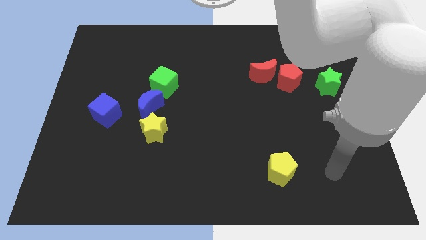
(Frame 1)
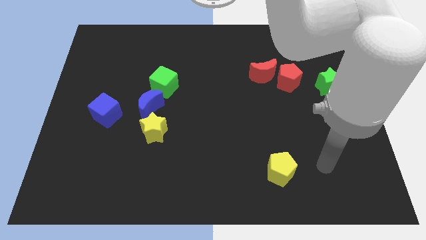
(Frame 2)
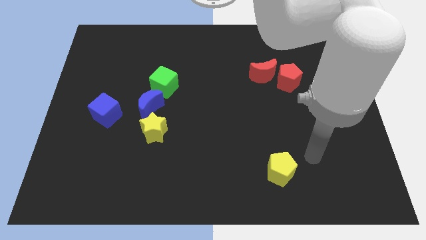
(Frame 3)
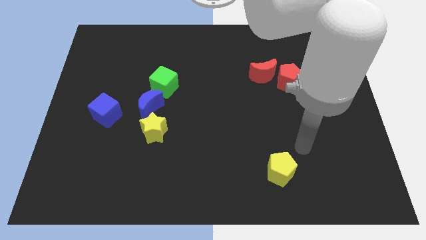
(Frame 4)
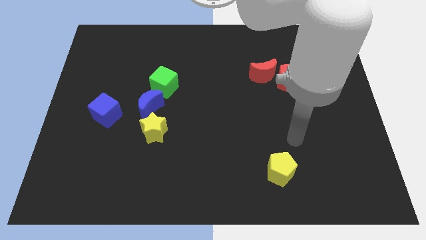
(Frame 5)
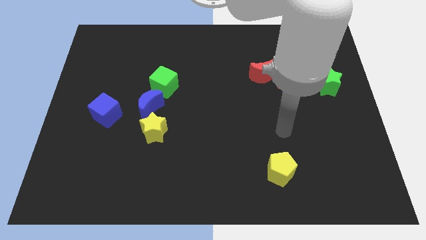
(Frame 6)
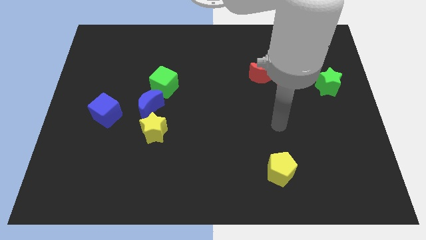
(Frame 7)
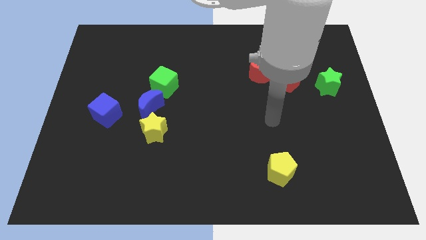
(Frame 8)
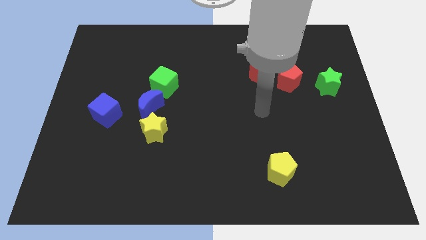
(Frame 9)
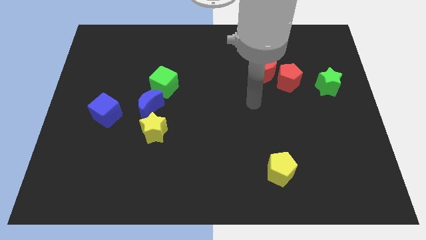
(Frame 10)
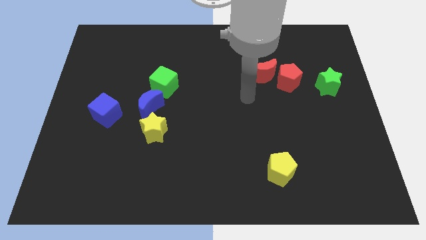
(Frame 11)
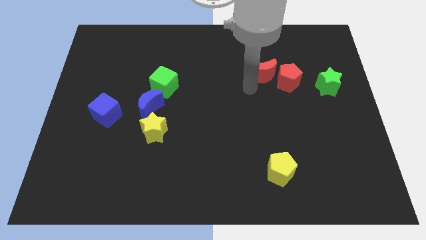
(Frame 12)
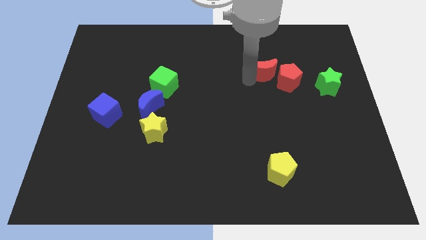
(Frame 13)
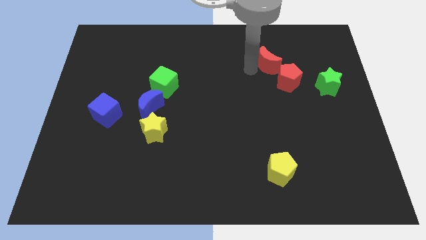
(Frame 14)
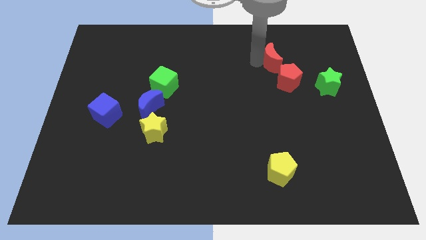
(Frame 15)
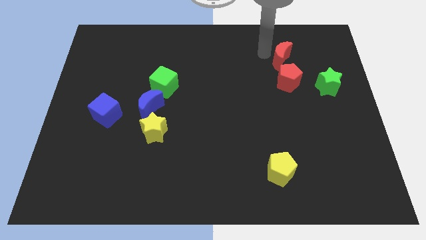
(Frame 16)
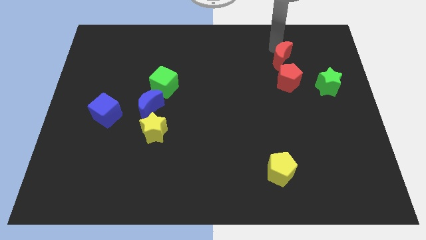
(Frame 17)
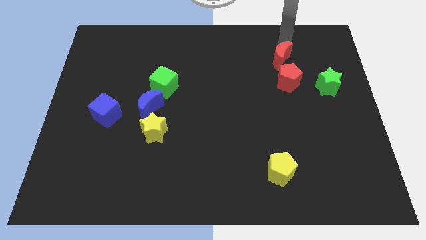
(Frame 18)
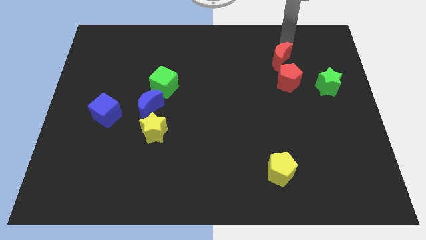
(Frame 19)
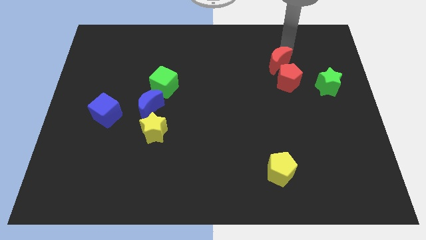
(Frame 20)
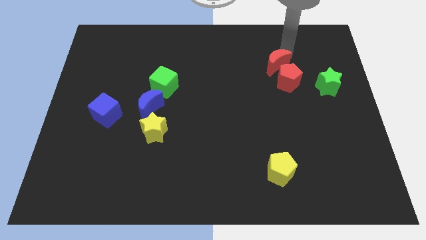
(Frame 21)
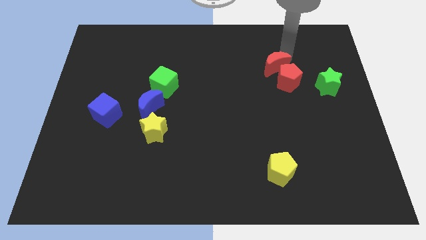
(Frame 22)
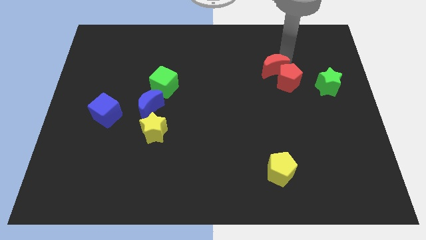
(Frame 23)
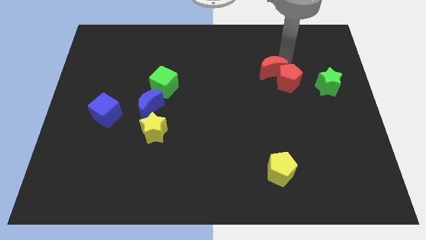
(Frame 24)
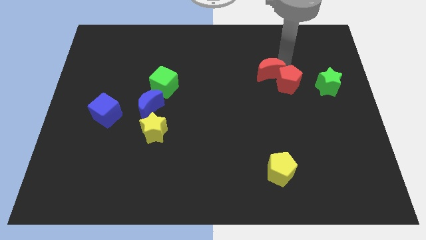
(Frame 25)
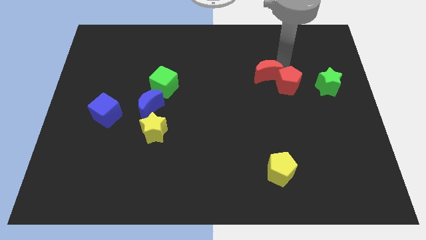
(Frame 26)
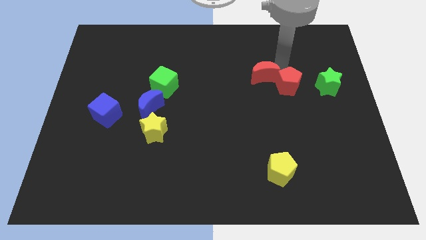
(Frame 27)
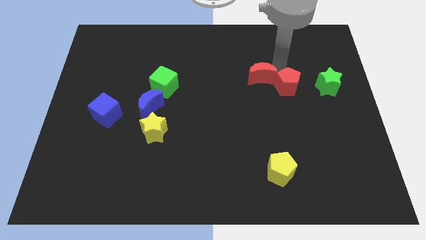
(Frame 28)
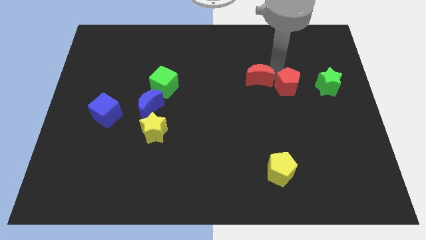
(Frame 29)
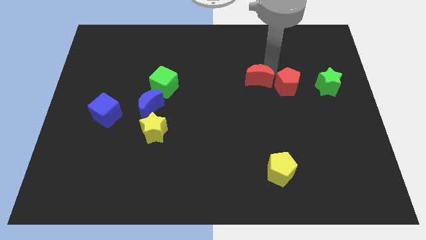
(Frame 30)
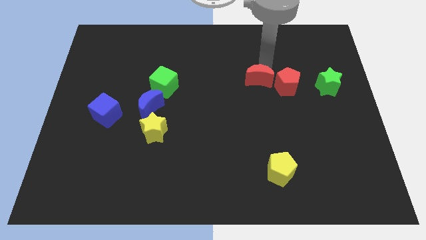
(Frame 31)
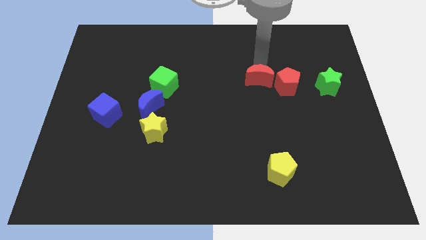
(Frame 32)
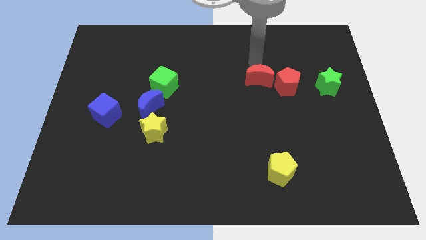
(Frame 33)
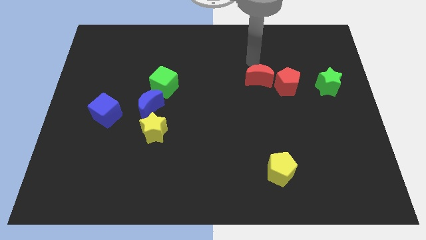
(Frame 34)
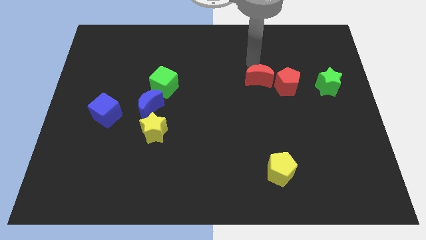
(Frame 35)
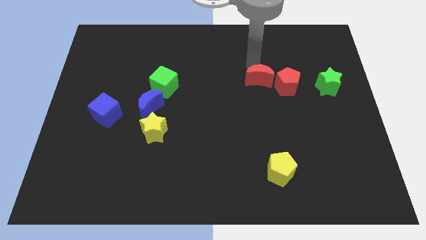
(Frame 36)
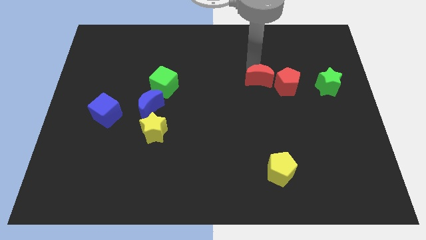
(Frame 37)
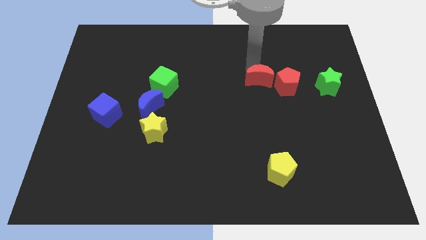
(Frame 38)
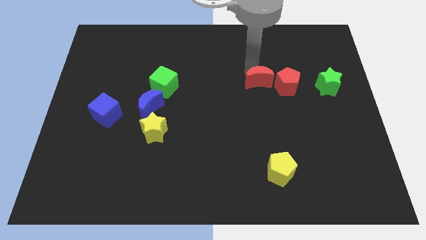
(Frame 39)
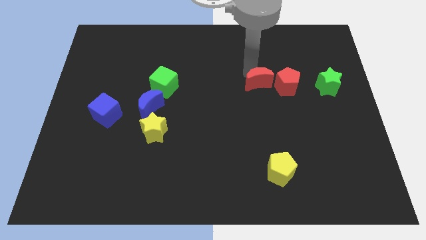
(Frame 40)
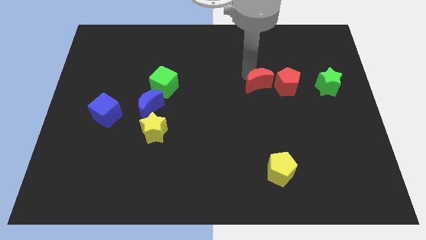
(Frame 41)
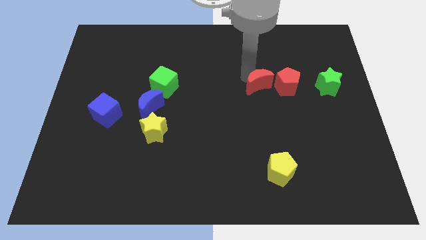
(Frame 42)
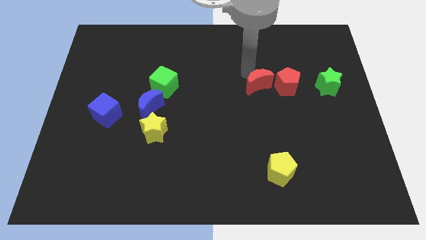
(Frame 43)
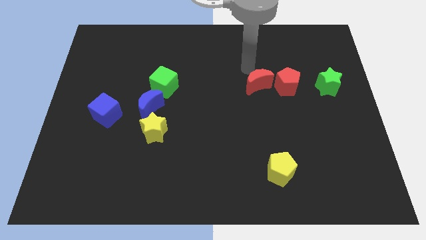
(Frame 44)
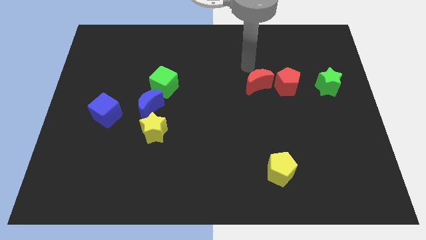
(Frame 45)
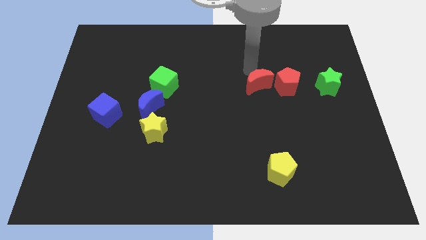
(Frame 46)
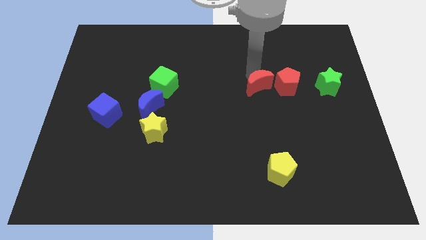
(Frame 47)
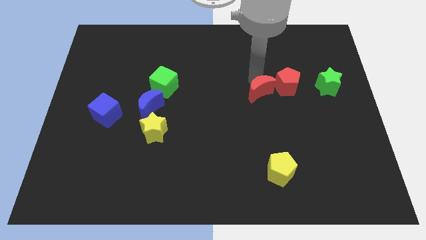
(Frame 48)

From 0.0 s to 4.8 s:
put the red moon to the bottom left of the red pentagon

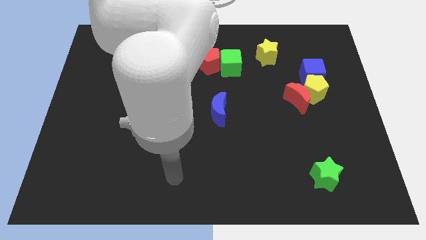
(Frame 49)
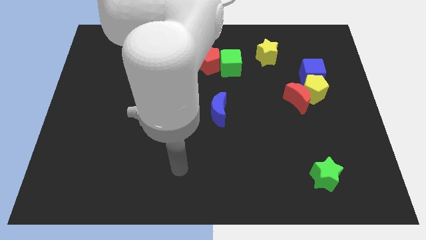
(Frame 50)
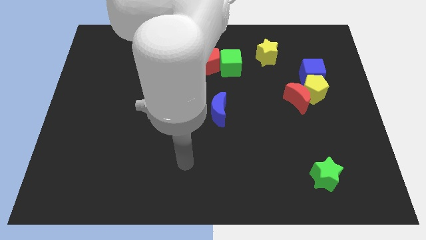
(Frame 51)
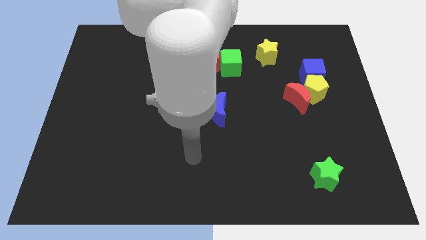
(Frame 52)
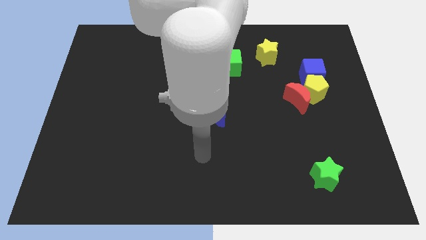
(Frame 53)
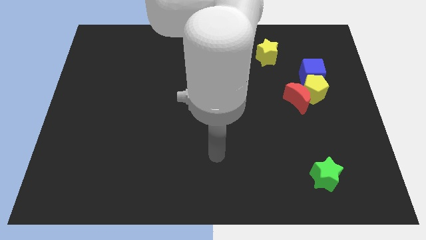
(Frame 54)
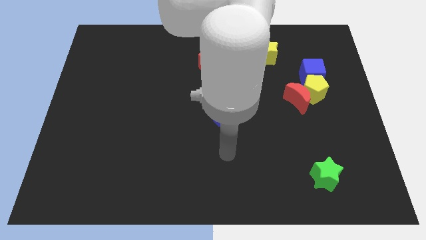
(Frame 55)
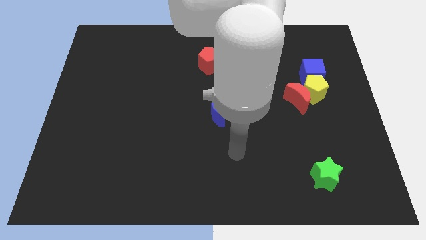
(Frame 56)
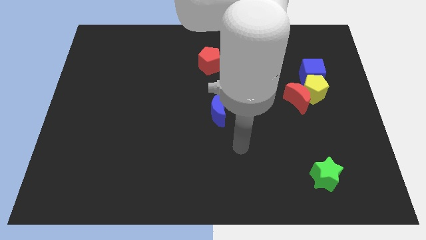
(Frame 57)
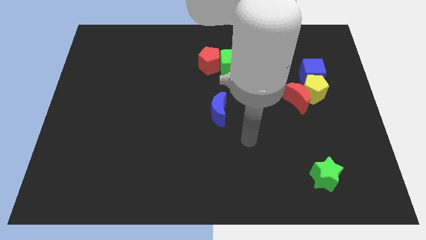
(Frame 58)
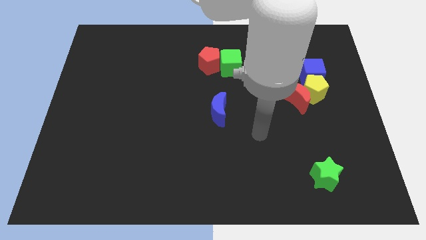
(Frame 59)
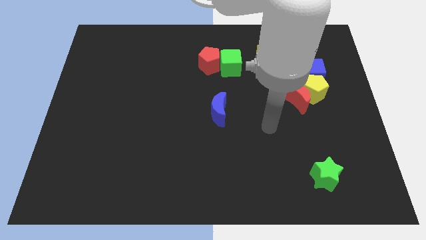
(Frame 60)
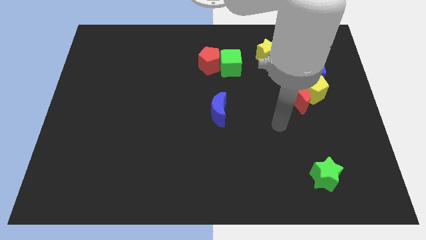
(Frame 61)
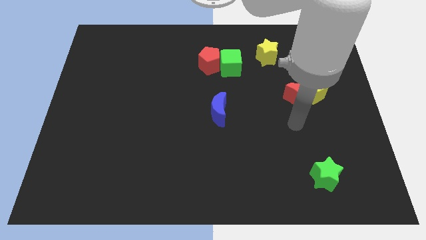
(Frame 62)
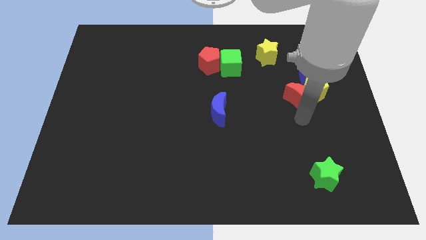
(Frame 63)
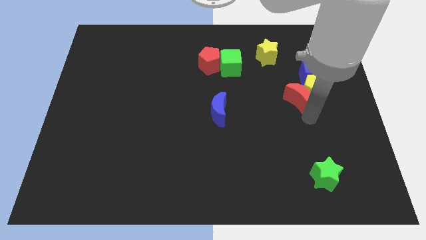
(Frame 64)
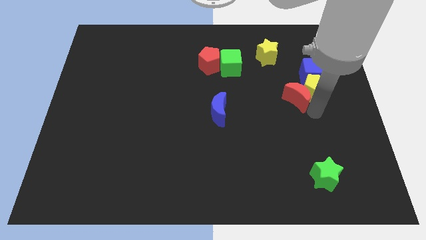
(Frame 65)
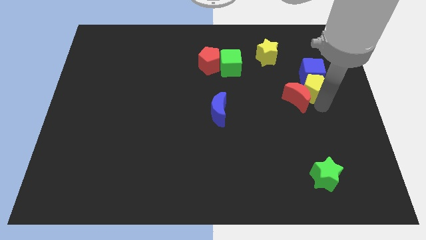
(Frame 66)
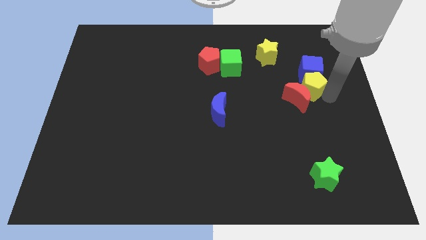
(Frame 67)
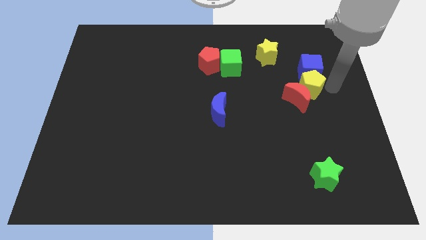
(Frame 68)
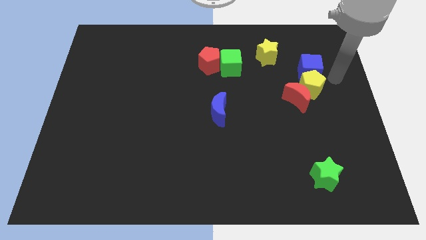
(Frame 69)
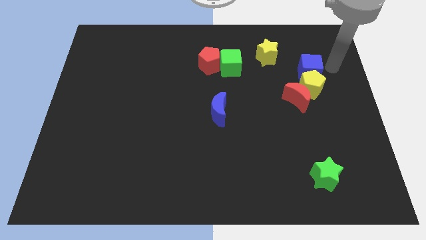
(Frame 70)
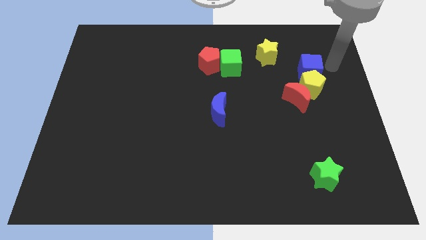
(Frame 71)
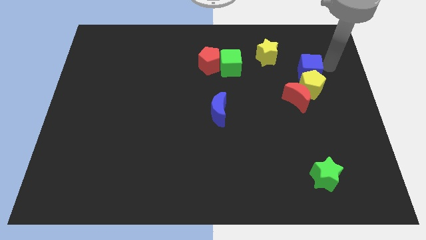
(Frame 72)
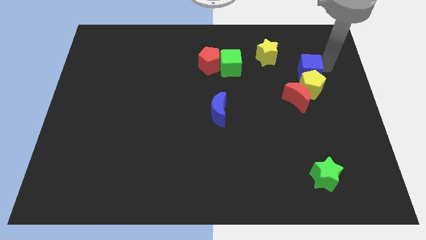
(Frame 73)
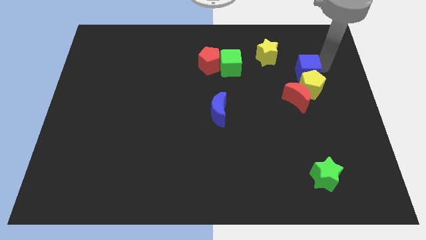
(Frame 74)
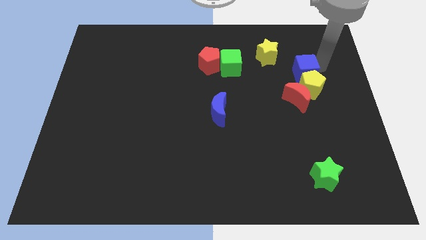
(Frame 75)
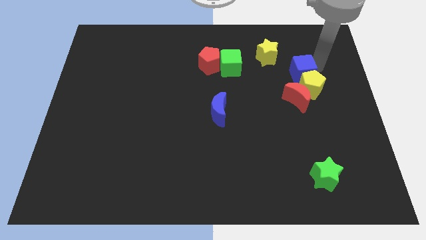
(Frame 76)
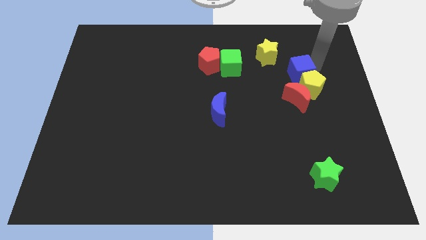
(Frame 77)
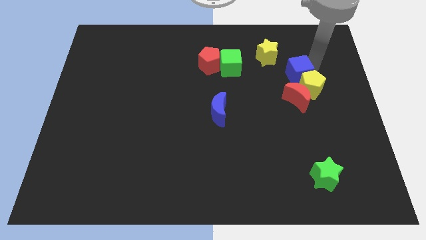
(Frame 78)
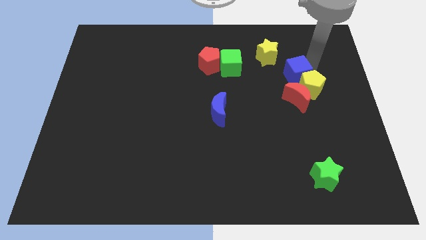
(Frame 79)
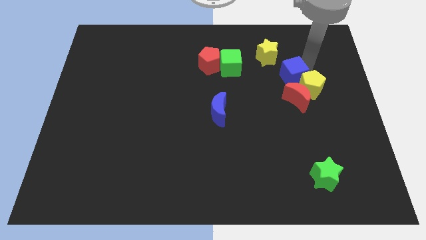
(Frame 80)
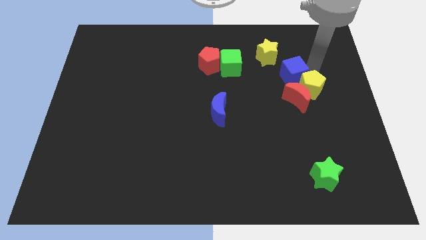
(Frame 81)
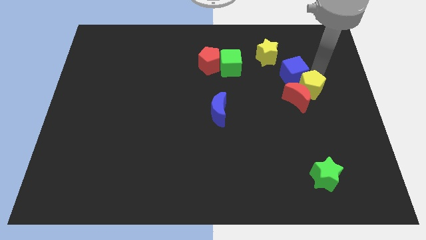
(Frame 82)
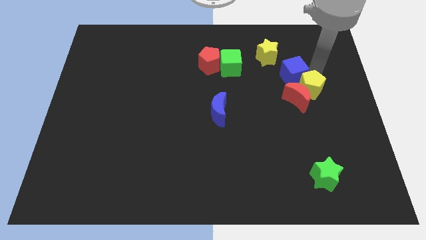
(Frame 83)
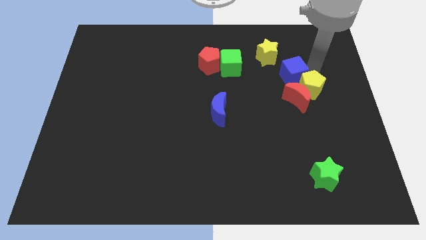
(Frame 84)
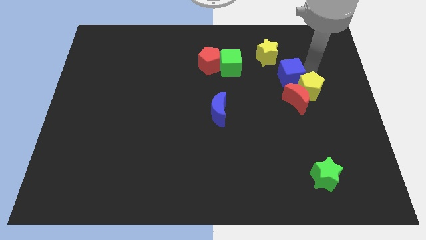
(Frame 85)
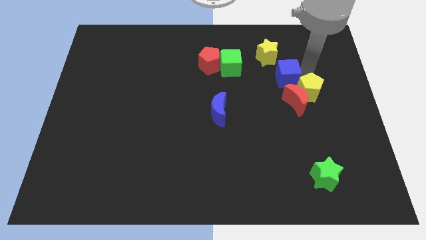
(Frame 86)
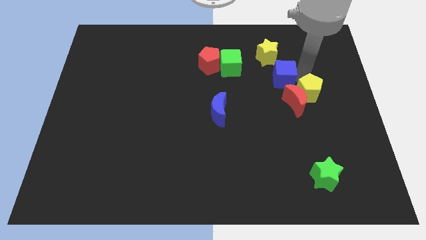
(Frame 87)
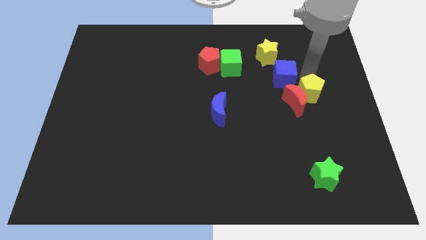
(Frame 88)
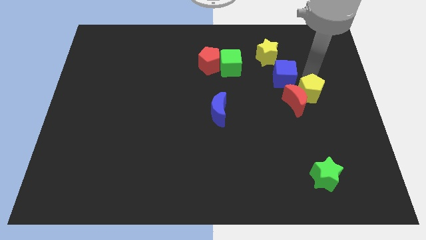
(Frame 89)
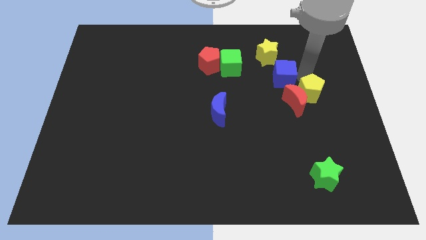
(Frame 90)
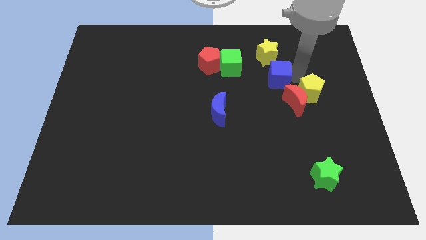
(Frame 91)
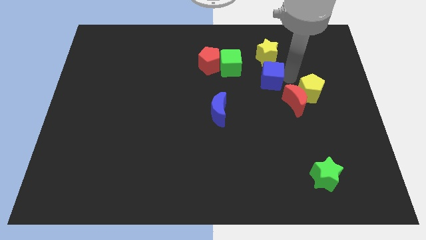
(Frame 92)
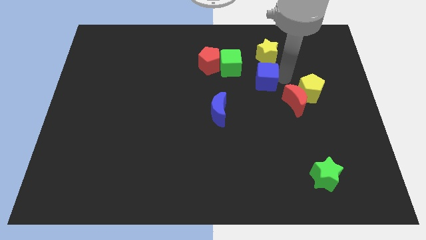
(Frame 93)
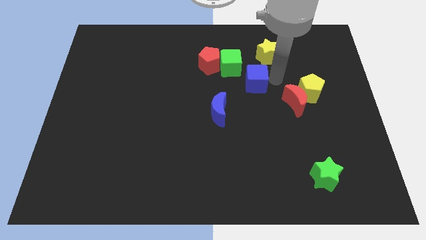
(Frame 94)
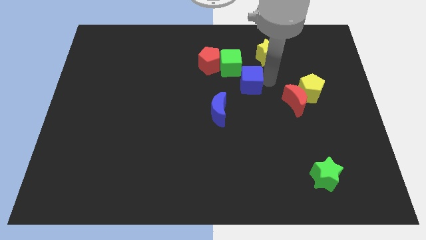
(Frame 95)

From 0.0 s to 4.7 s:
move the blue cube to the bottom right of the red pentagon
